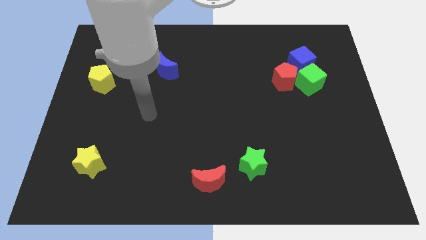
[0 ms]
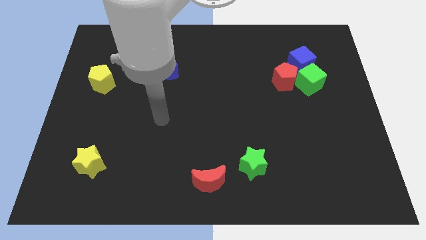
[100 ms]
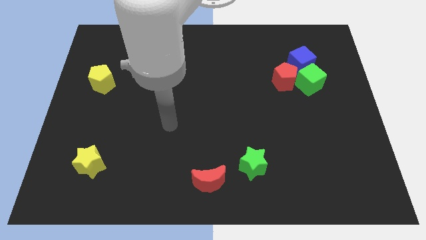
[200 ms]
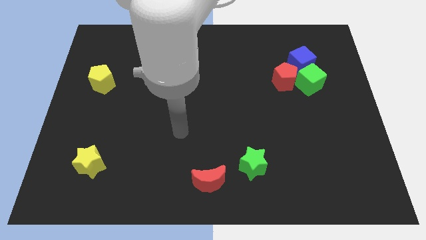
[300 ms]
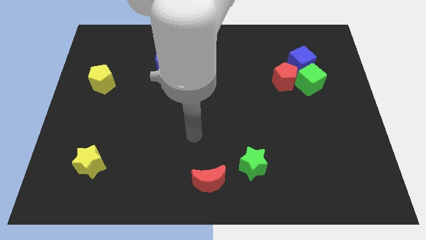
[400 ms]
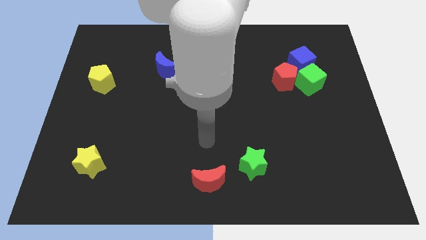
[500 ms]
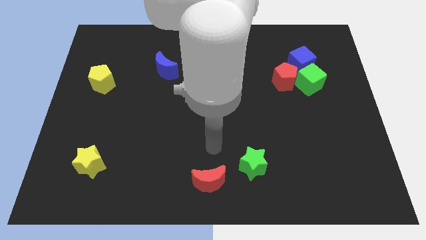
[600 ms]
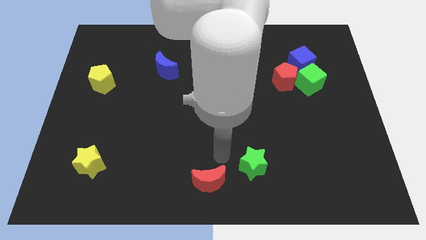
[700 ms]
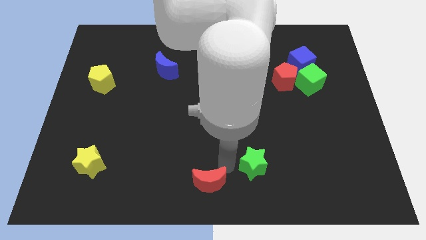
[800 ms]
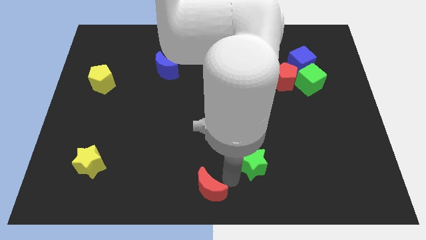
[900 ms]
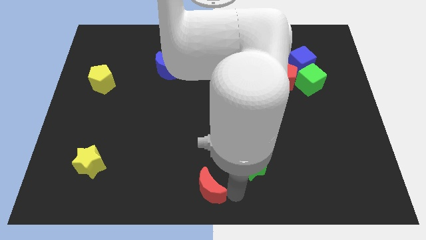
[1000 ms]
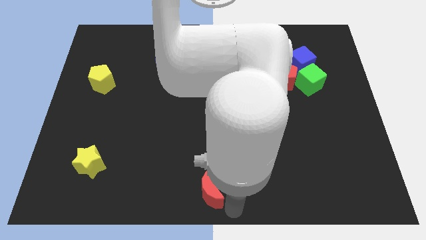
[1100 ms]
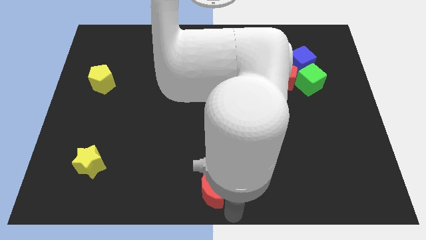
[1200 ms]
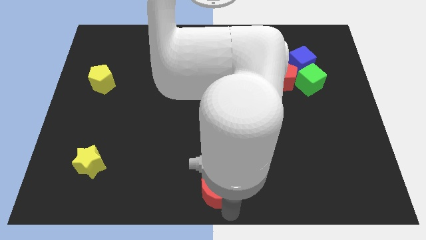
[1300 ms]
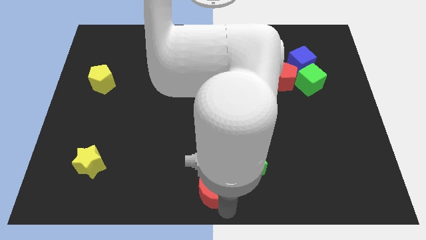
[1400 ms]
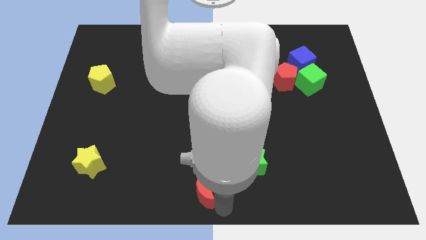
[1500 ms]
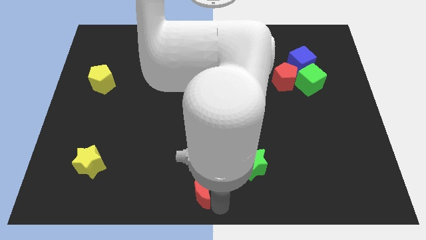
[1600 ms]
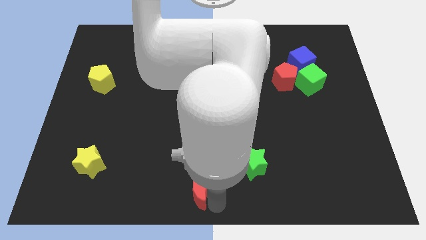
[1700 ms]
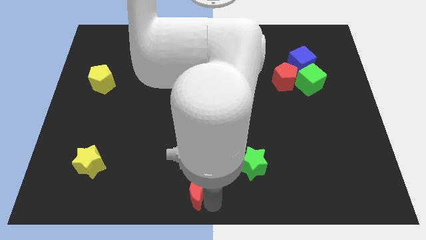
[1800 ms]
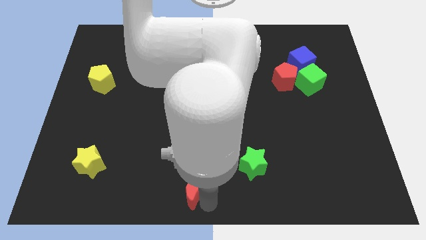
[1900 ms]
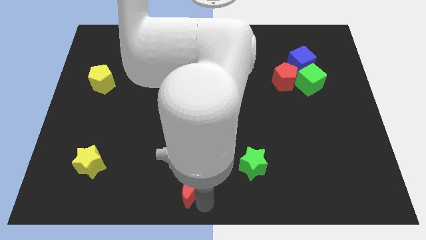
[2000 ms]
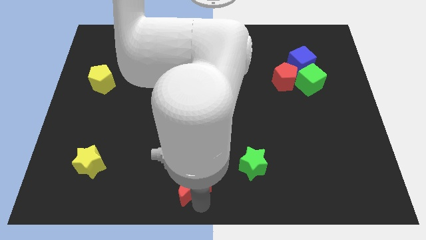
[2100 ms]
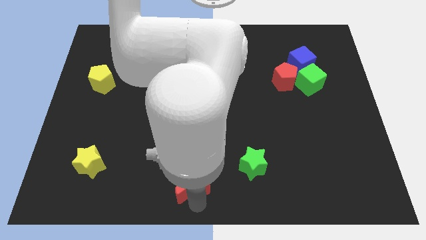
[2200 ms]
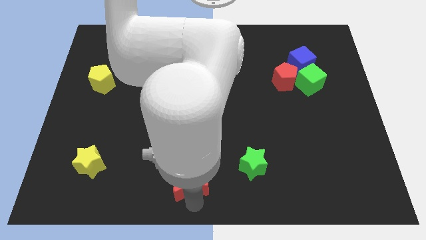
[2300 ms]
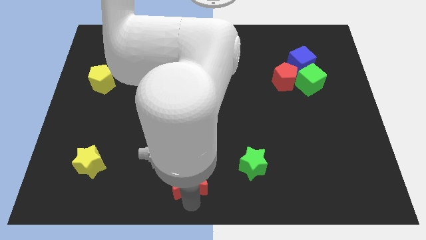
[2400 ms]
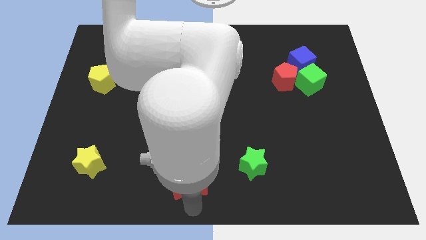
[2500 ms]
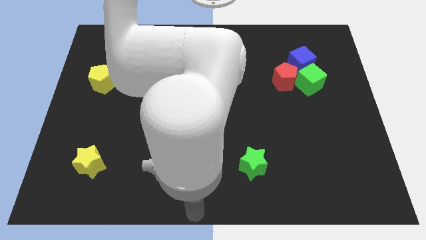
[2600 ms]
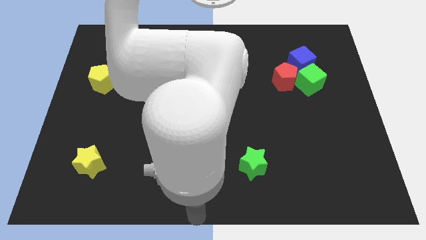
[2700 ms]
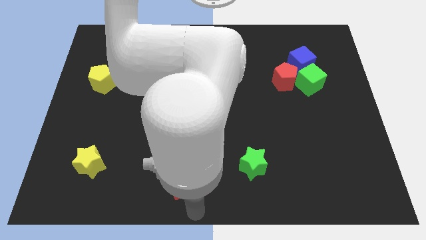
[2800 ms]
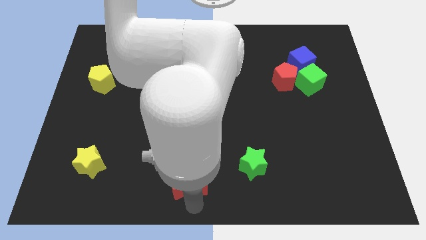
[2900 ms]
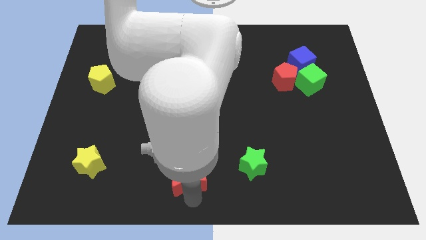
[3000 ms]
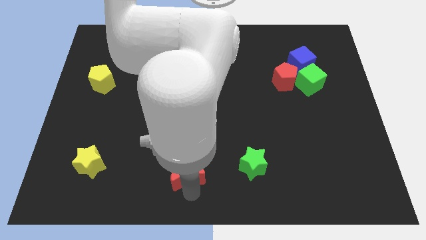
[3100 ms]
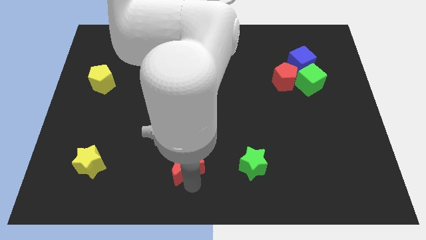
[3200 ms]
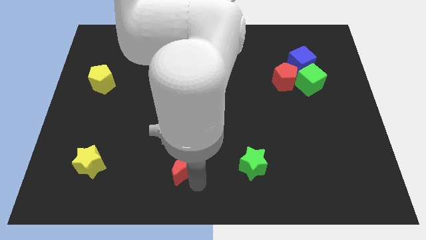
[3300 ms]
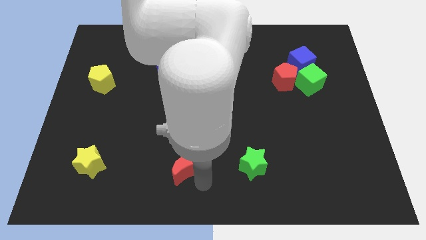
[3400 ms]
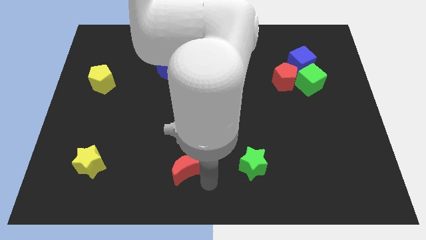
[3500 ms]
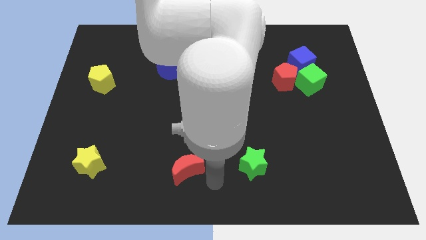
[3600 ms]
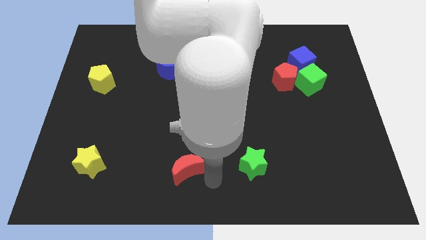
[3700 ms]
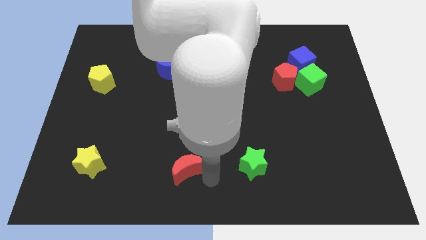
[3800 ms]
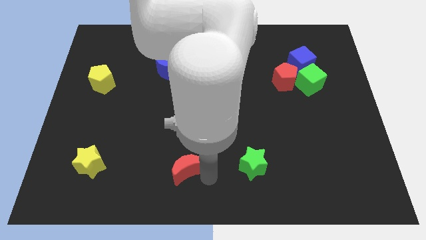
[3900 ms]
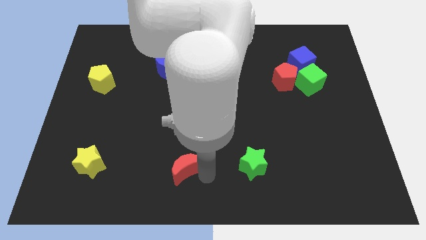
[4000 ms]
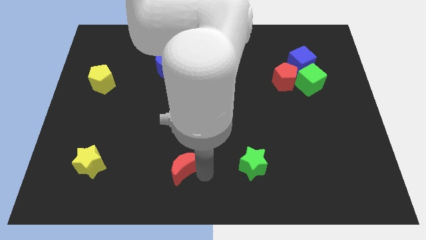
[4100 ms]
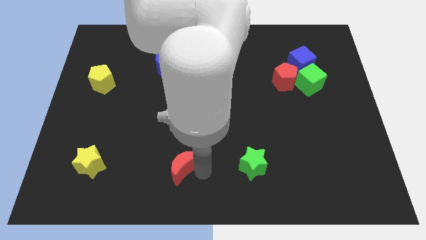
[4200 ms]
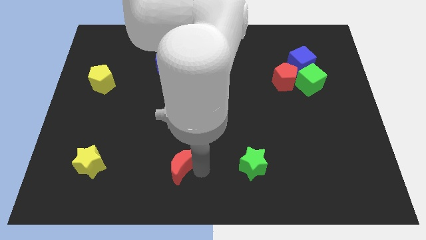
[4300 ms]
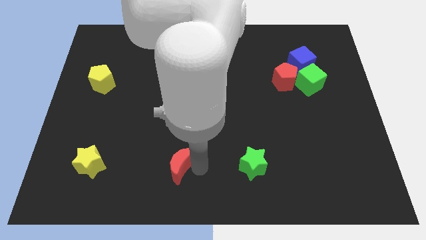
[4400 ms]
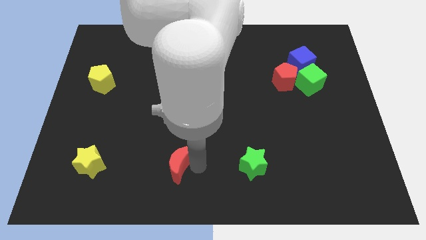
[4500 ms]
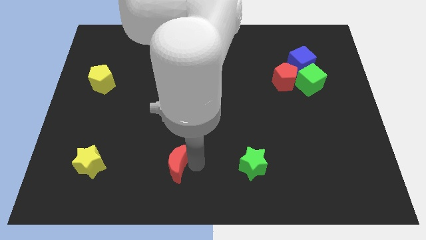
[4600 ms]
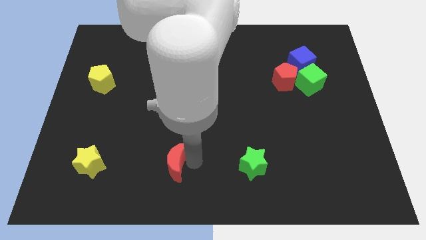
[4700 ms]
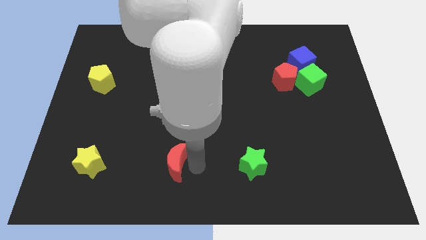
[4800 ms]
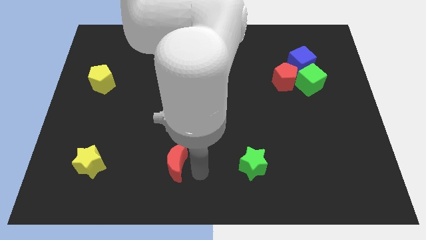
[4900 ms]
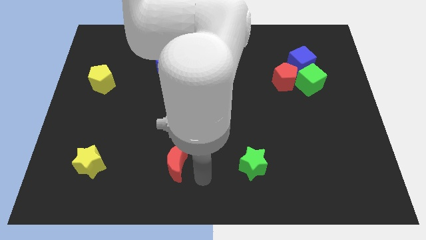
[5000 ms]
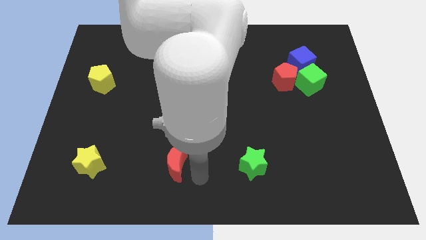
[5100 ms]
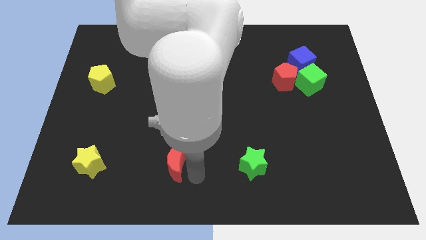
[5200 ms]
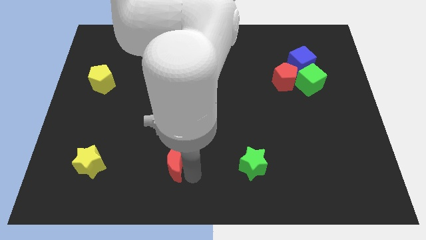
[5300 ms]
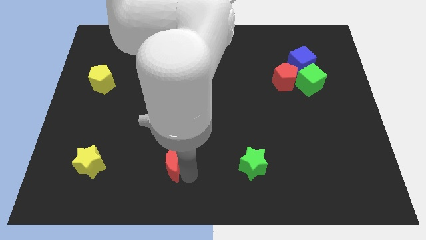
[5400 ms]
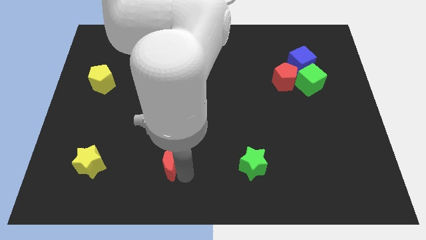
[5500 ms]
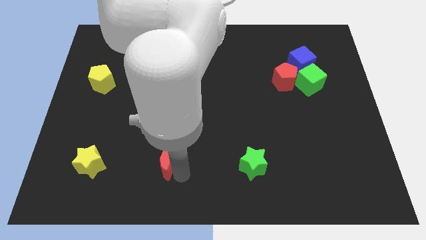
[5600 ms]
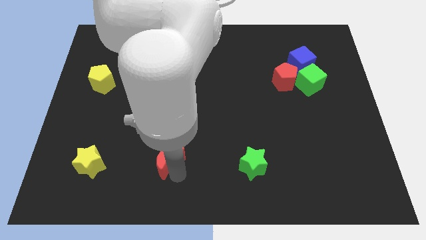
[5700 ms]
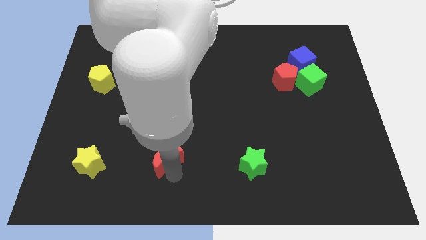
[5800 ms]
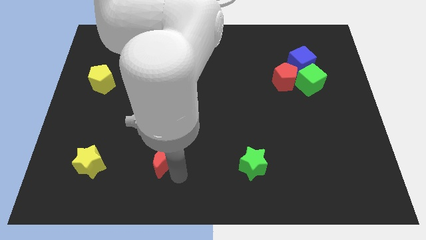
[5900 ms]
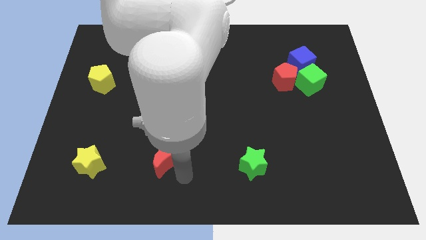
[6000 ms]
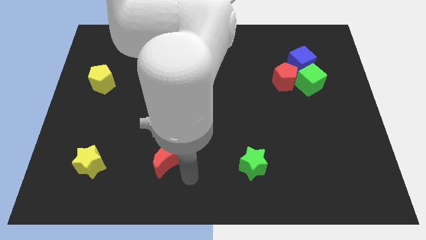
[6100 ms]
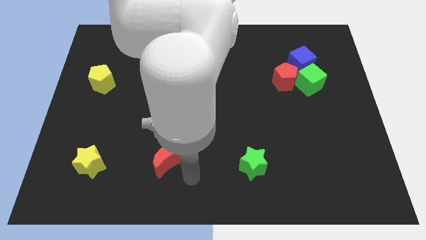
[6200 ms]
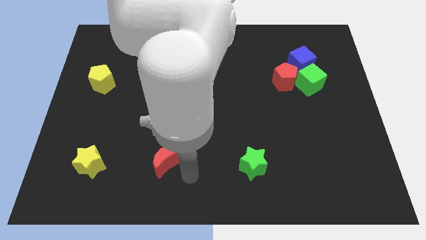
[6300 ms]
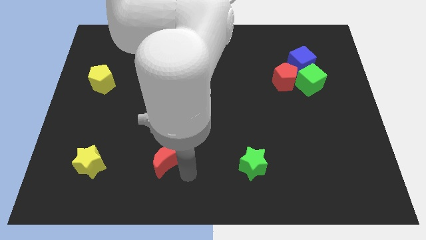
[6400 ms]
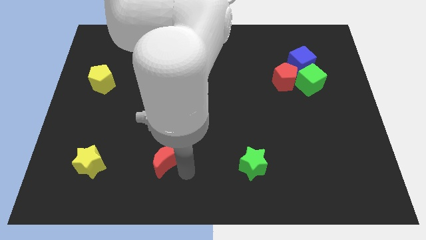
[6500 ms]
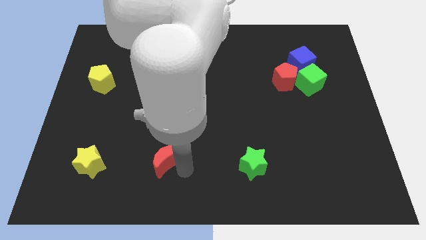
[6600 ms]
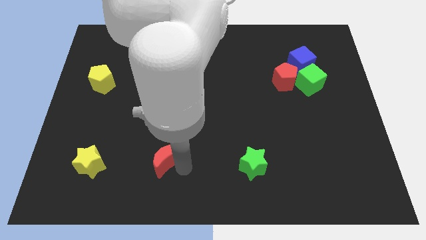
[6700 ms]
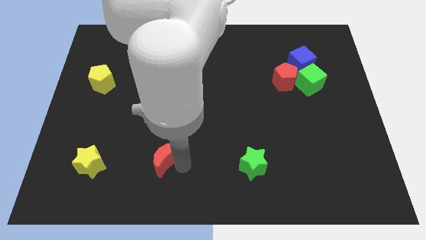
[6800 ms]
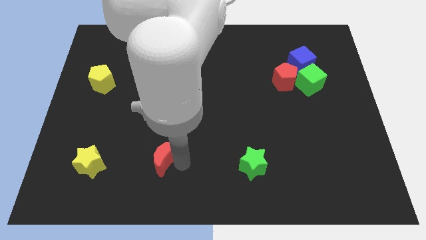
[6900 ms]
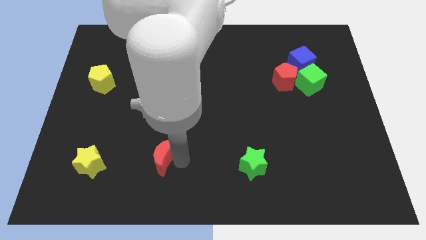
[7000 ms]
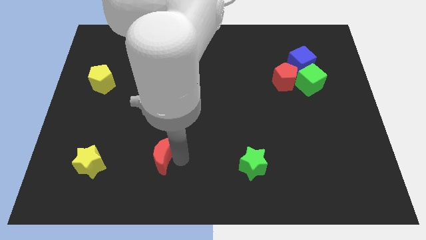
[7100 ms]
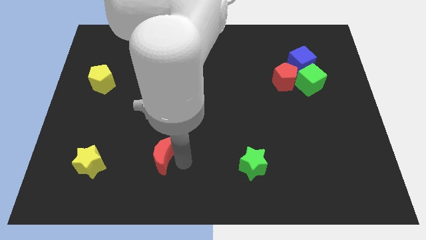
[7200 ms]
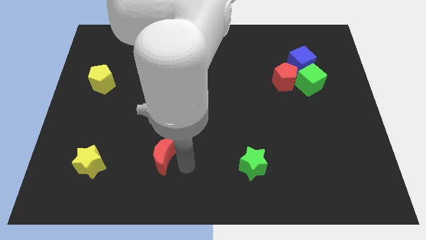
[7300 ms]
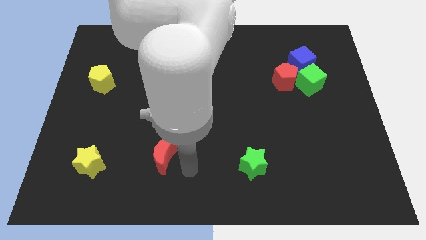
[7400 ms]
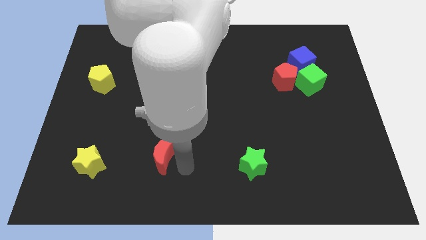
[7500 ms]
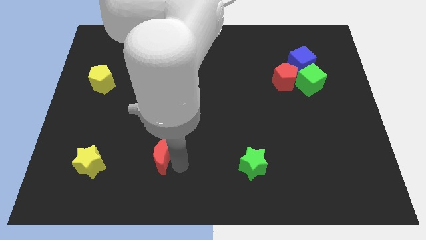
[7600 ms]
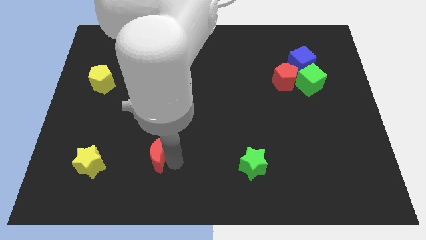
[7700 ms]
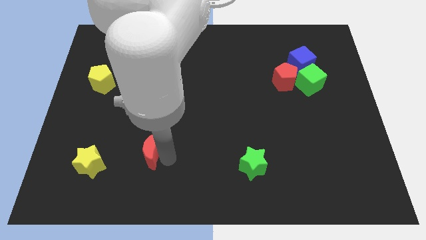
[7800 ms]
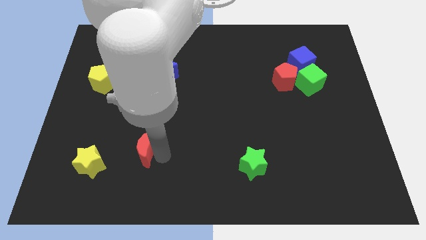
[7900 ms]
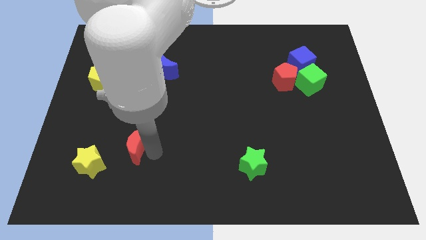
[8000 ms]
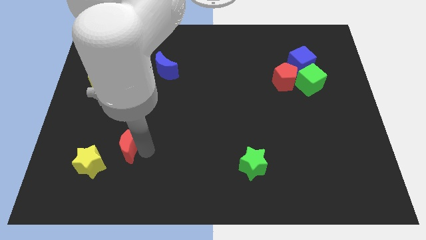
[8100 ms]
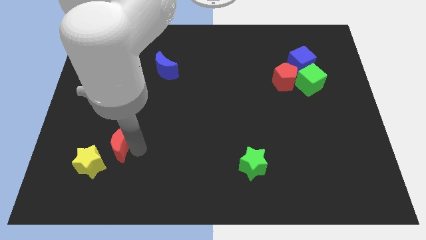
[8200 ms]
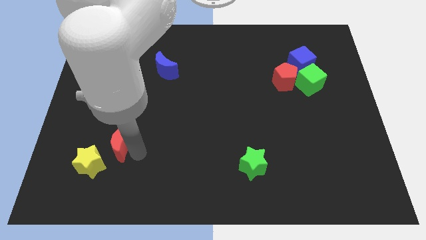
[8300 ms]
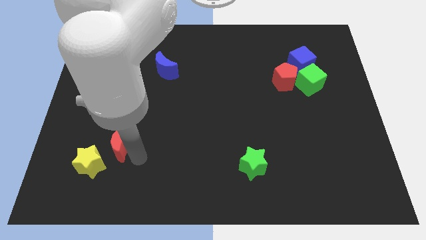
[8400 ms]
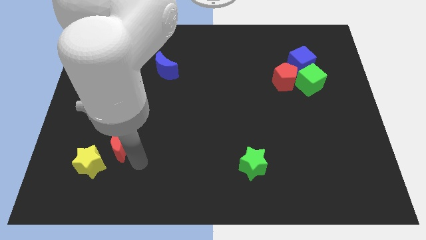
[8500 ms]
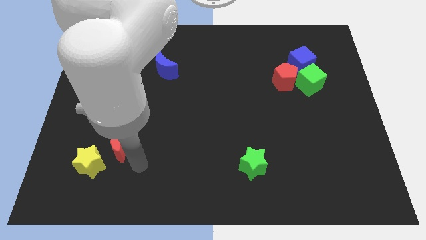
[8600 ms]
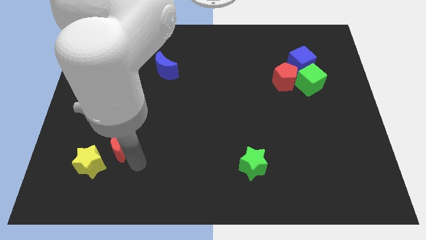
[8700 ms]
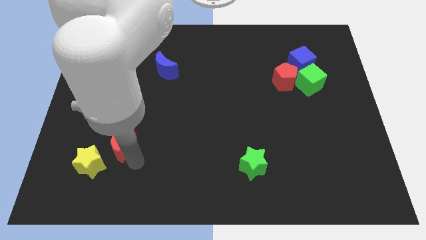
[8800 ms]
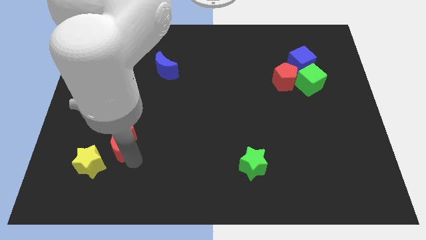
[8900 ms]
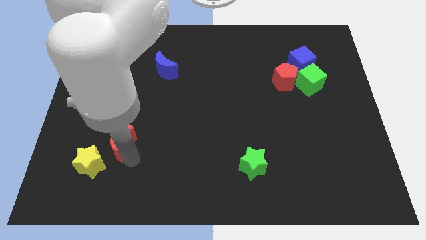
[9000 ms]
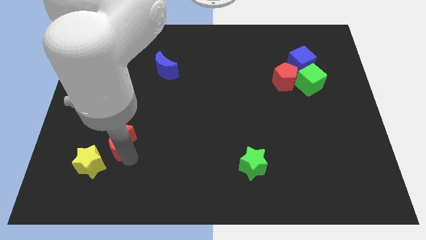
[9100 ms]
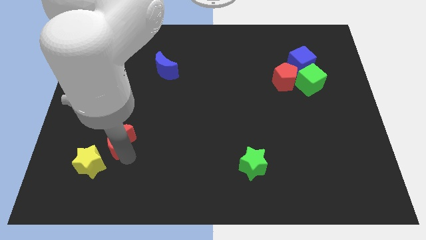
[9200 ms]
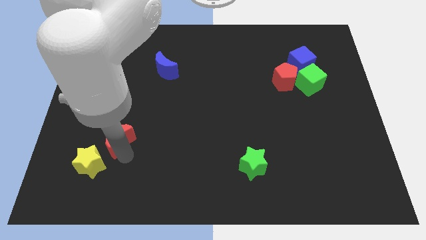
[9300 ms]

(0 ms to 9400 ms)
move the red moon to the top side of the yellow star
